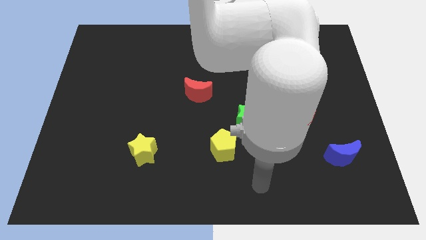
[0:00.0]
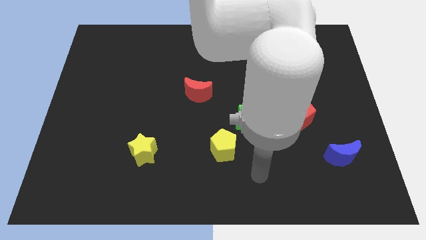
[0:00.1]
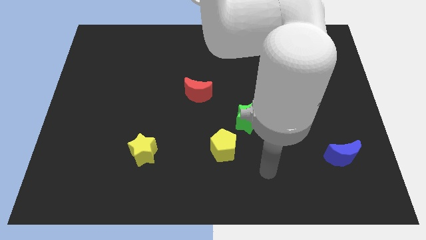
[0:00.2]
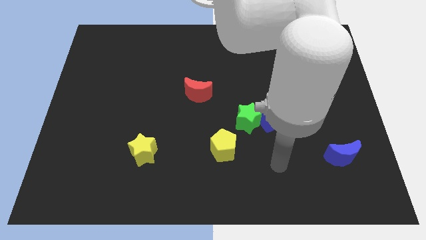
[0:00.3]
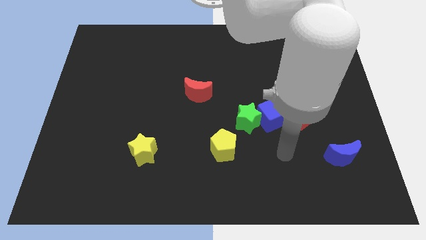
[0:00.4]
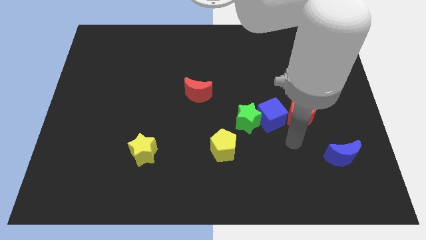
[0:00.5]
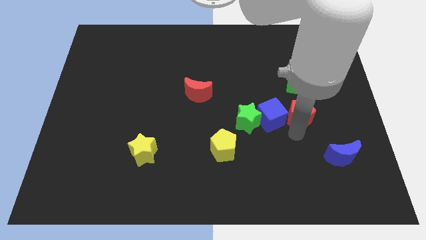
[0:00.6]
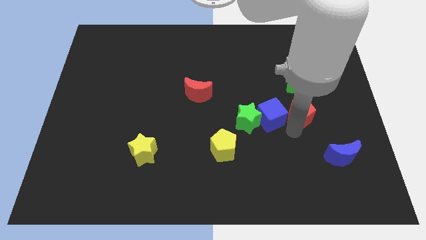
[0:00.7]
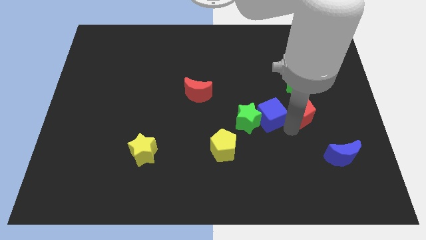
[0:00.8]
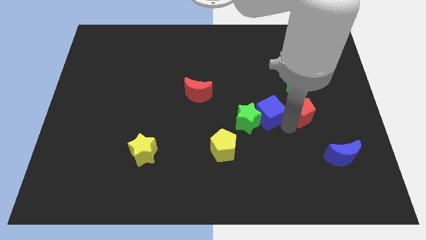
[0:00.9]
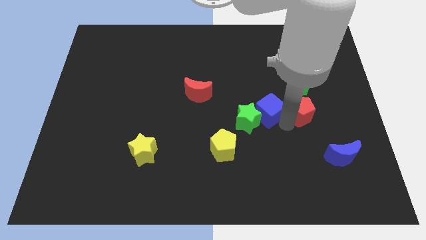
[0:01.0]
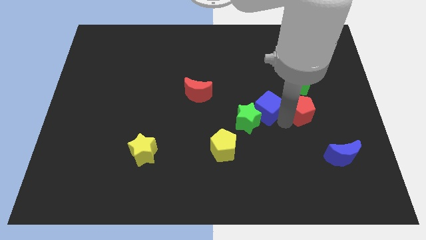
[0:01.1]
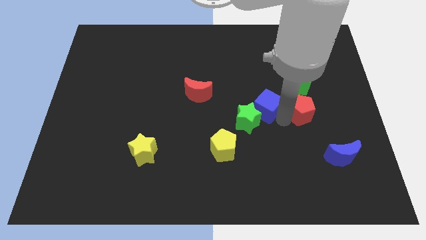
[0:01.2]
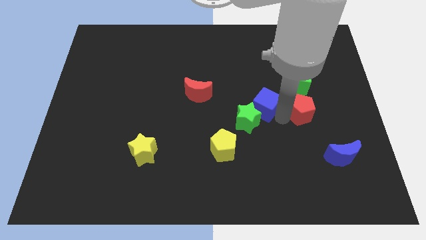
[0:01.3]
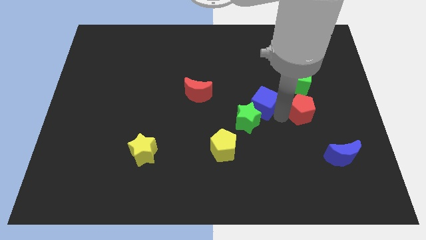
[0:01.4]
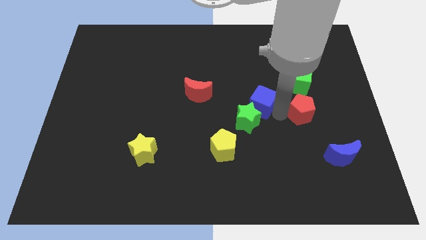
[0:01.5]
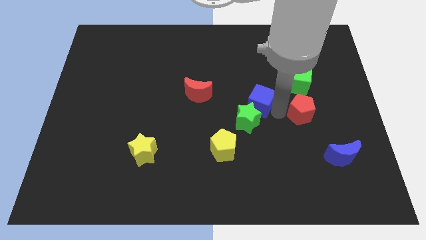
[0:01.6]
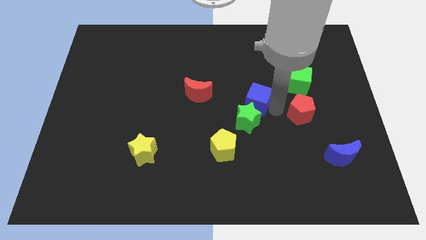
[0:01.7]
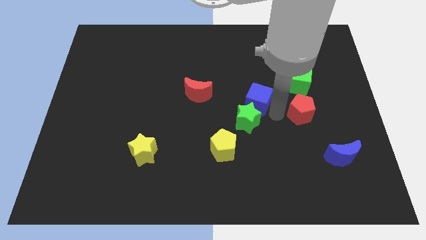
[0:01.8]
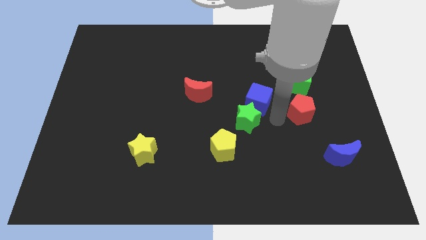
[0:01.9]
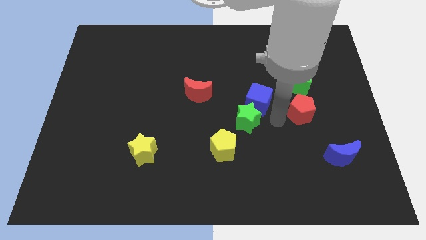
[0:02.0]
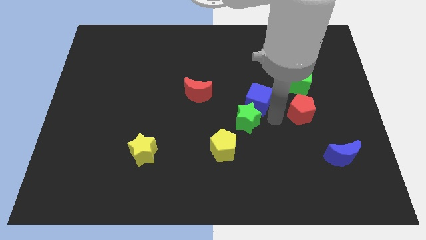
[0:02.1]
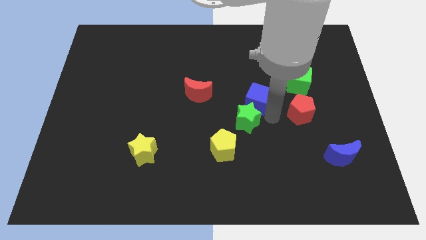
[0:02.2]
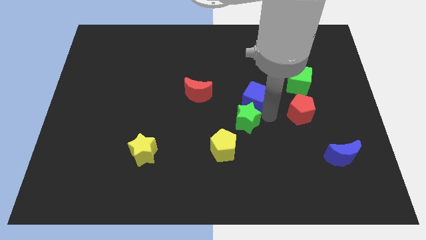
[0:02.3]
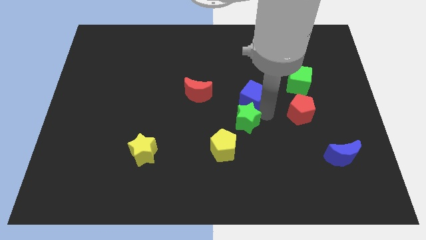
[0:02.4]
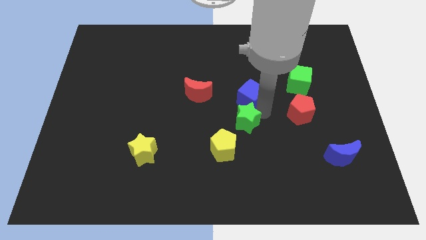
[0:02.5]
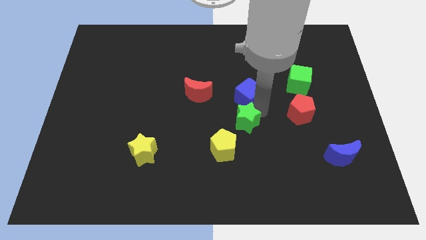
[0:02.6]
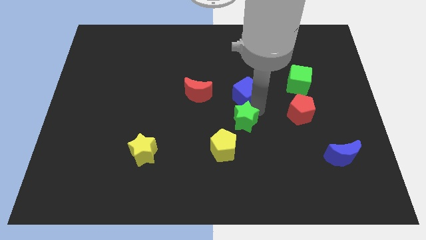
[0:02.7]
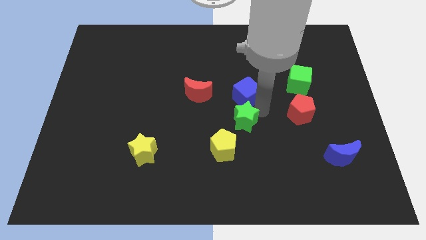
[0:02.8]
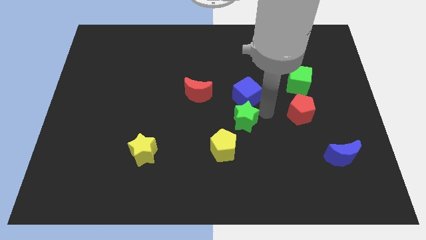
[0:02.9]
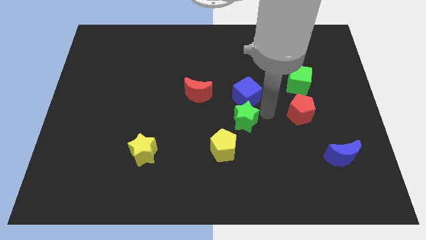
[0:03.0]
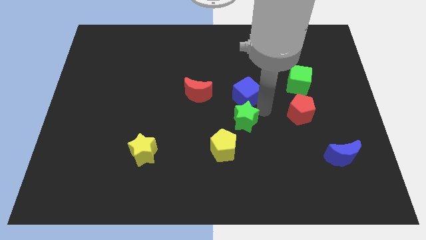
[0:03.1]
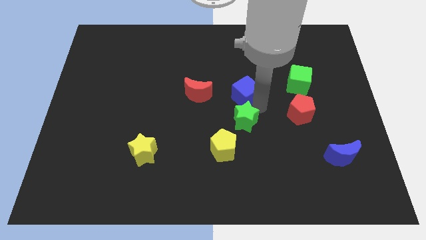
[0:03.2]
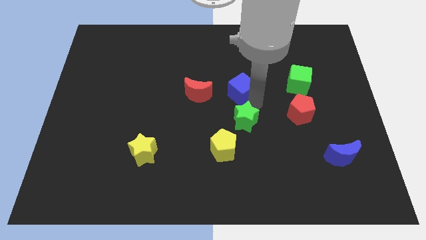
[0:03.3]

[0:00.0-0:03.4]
pull the blue cube apart from the green star and red pentagon

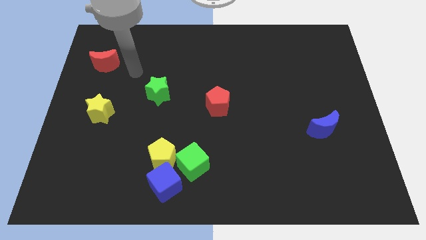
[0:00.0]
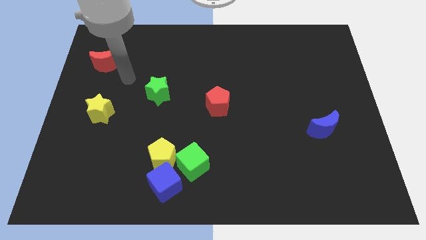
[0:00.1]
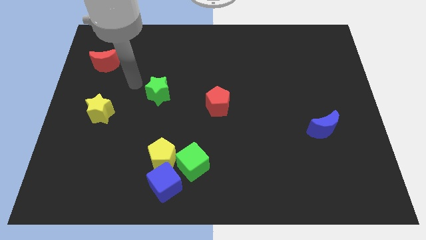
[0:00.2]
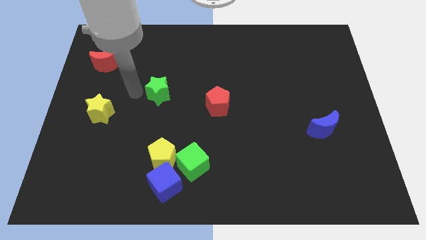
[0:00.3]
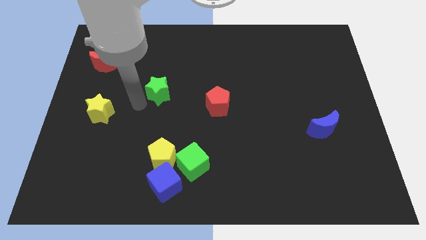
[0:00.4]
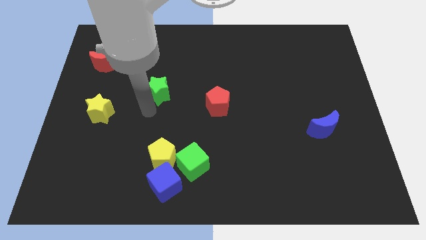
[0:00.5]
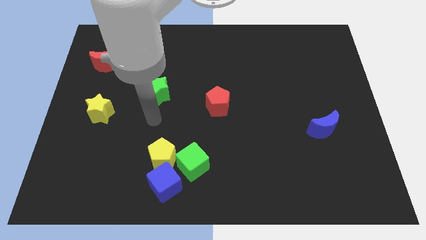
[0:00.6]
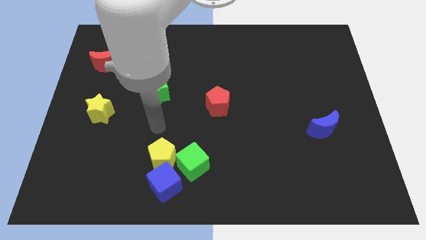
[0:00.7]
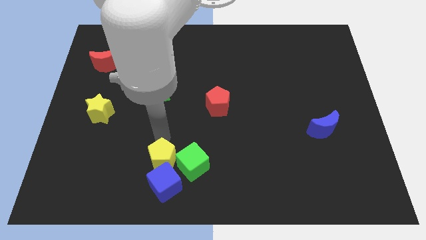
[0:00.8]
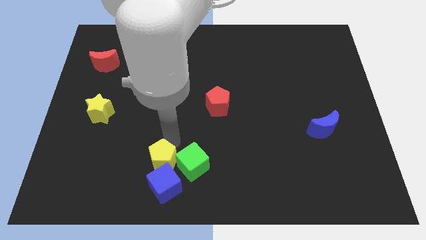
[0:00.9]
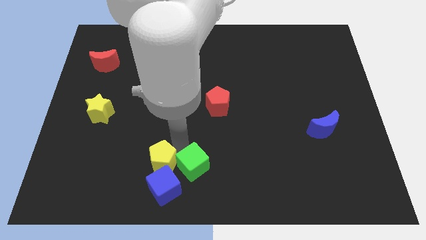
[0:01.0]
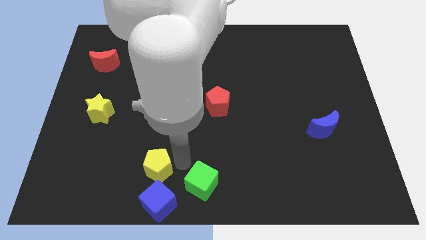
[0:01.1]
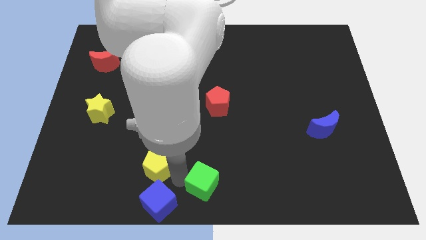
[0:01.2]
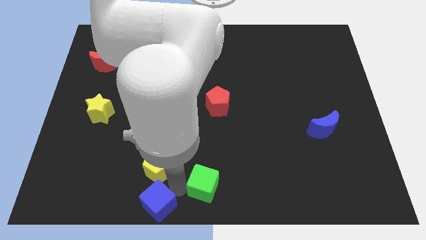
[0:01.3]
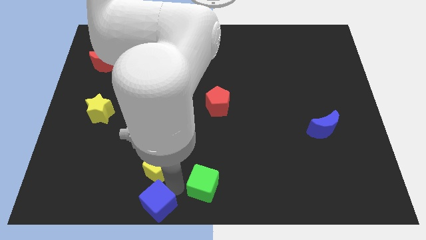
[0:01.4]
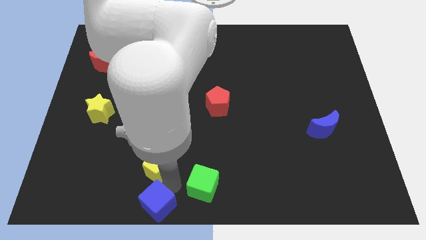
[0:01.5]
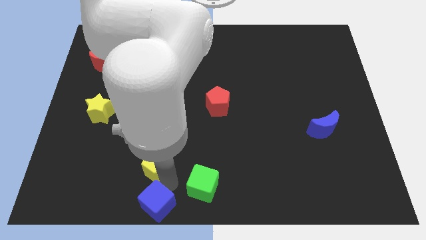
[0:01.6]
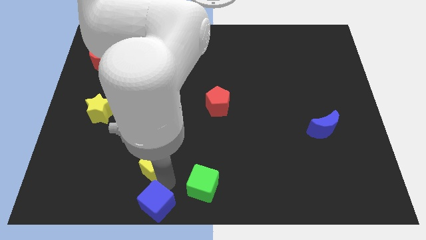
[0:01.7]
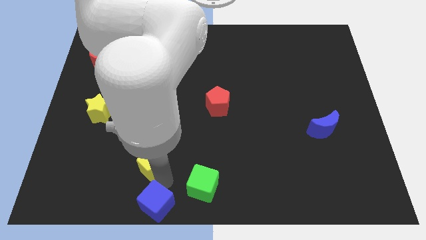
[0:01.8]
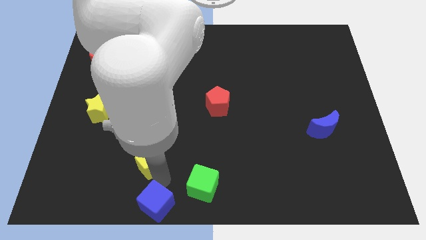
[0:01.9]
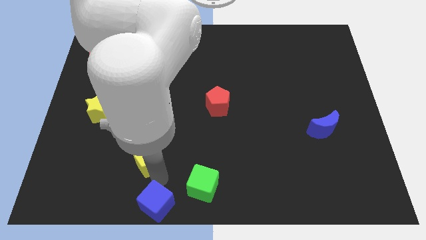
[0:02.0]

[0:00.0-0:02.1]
move the yellow pentagon away from the blue cube and green cube

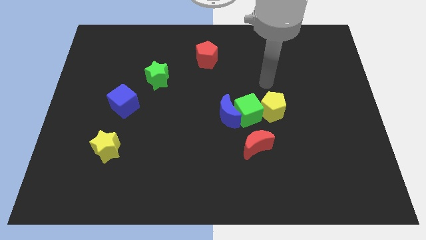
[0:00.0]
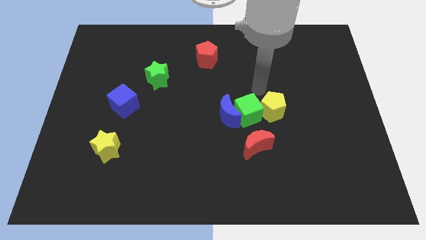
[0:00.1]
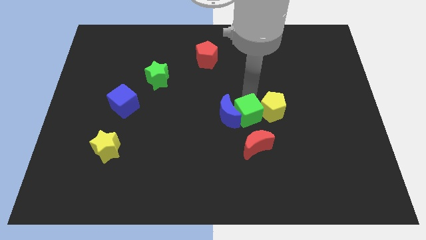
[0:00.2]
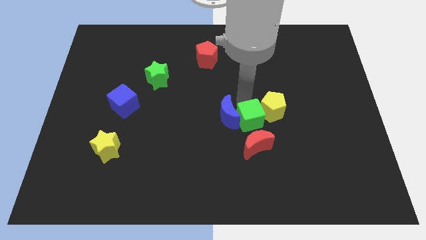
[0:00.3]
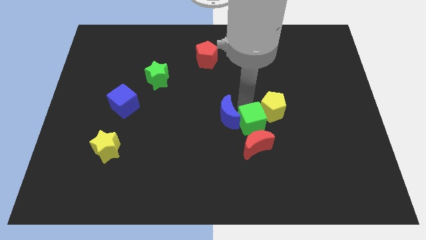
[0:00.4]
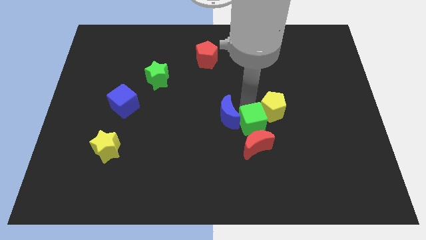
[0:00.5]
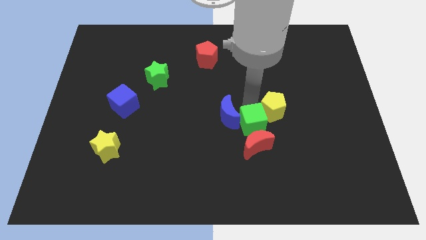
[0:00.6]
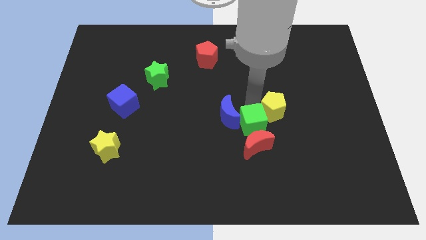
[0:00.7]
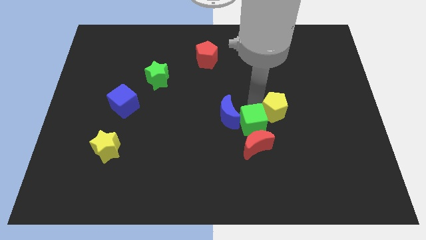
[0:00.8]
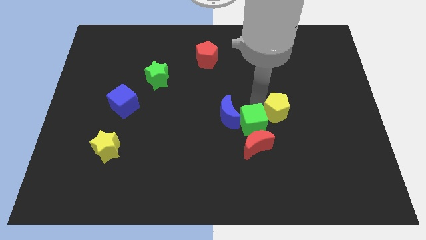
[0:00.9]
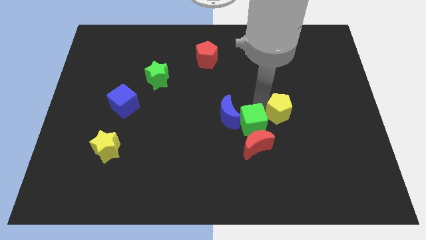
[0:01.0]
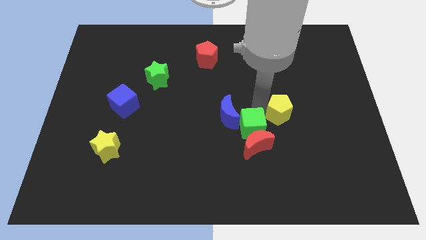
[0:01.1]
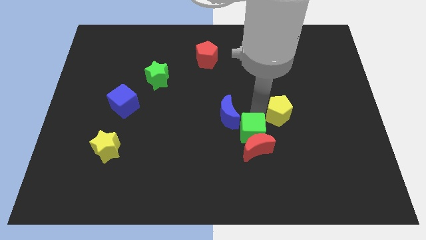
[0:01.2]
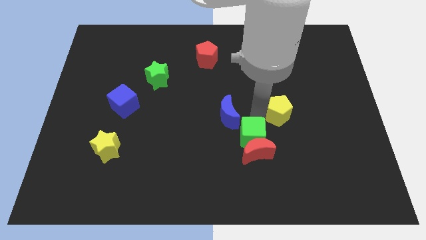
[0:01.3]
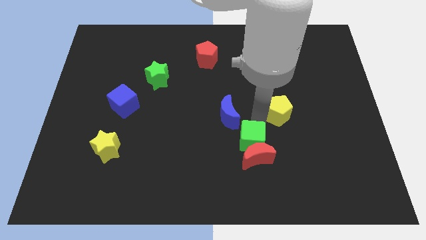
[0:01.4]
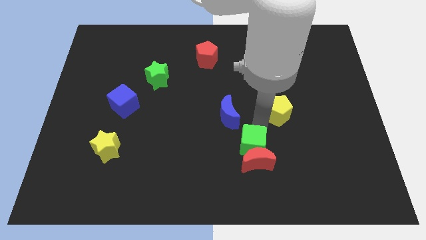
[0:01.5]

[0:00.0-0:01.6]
move the yellow pentagon away from the green cube

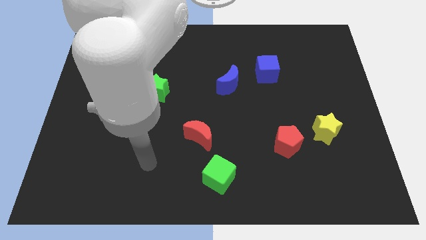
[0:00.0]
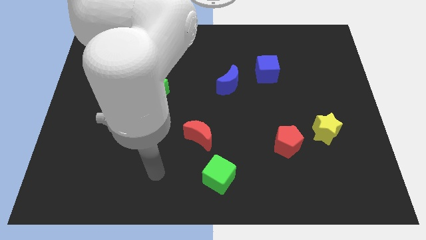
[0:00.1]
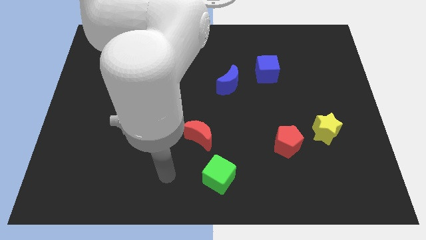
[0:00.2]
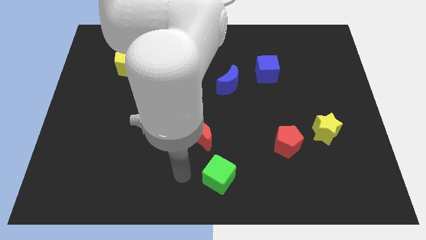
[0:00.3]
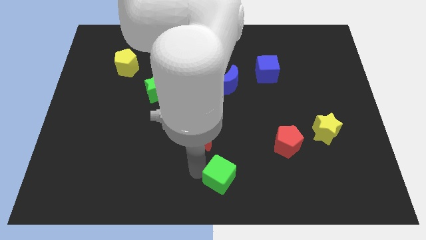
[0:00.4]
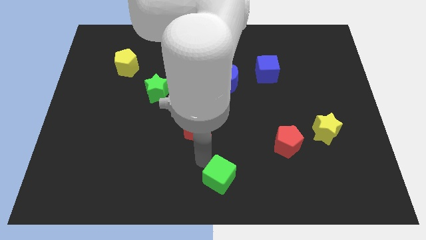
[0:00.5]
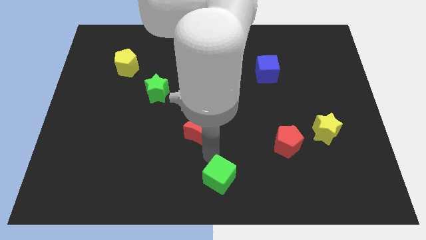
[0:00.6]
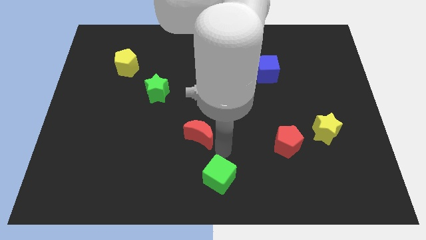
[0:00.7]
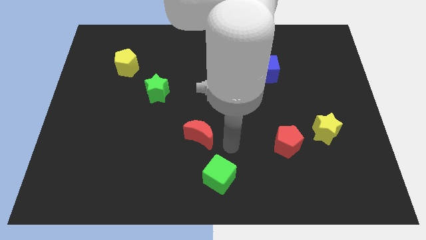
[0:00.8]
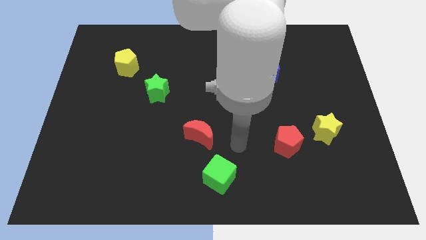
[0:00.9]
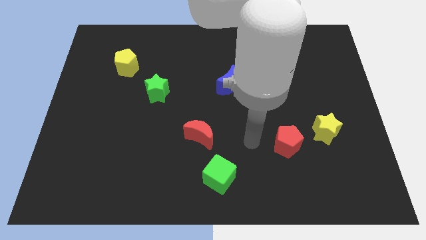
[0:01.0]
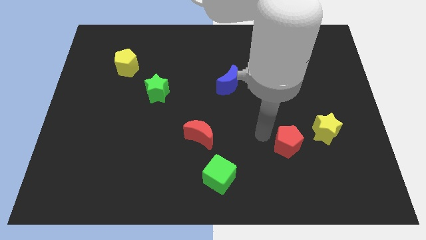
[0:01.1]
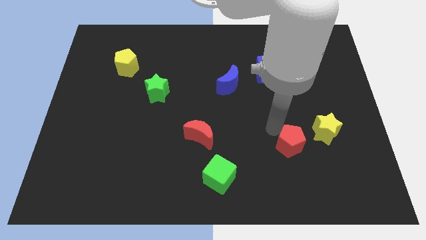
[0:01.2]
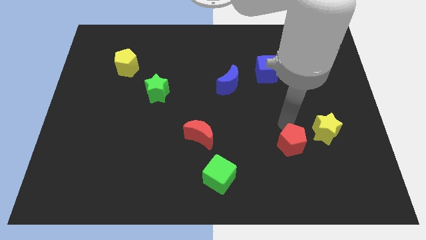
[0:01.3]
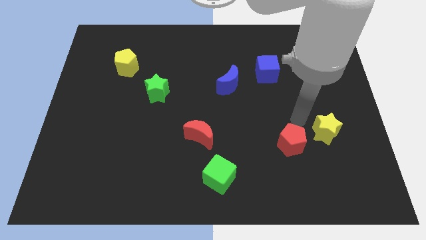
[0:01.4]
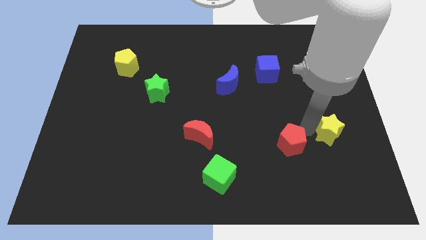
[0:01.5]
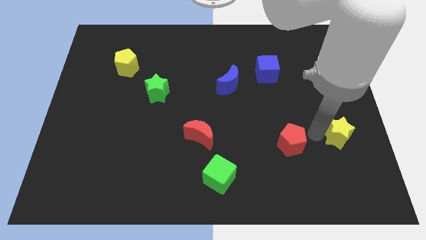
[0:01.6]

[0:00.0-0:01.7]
separate the red pentagon from the yellow star

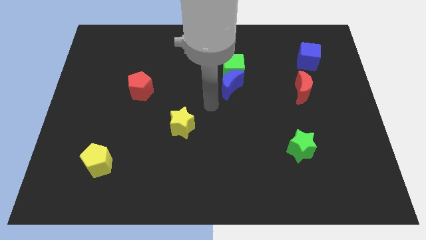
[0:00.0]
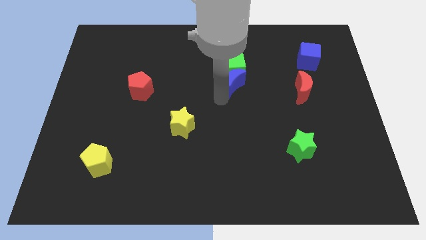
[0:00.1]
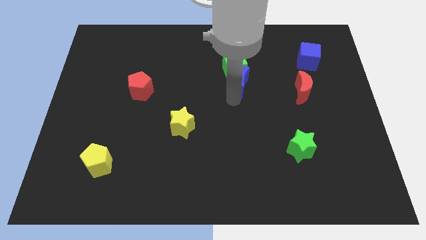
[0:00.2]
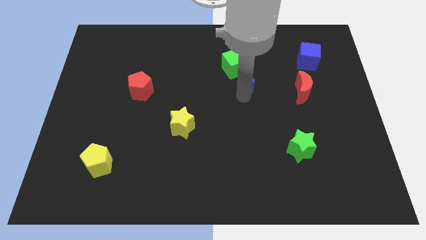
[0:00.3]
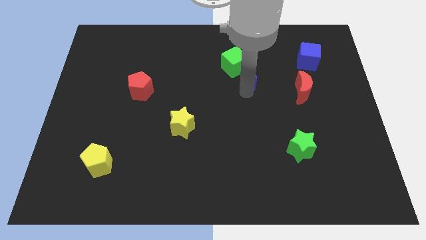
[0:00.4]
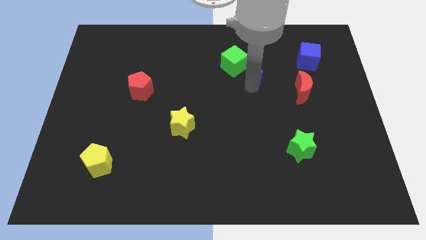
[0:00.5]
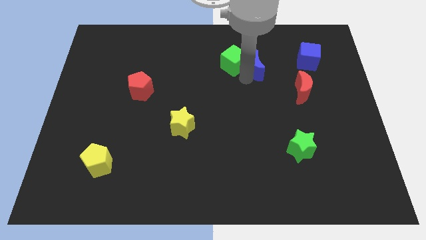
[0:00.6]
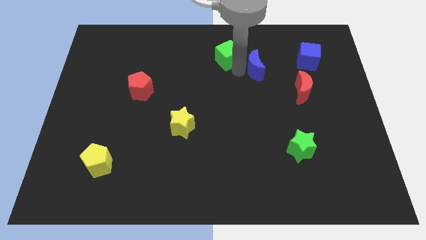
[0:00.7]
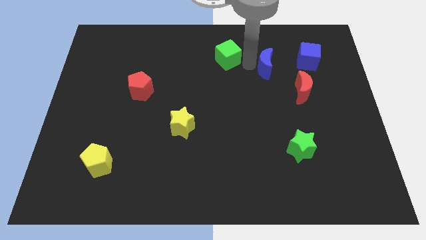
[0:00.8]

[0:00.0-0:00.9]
pull the blue moon apart from the green cube
